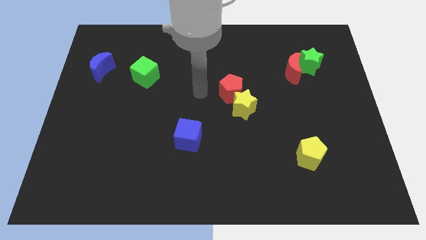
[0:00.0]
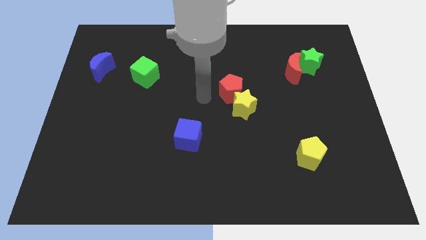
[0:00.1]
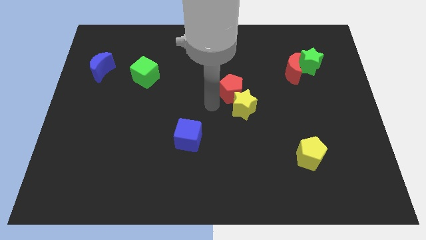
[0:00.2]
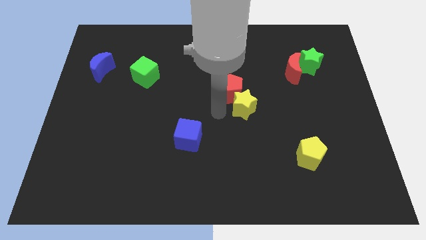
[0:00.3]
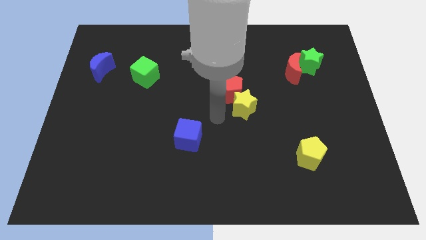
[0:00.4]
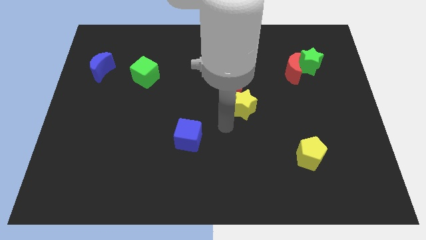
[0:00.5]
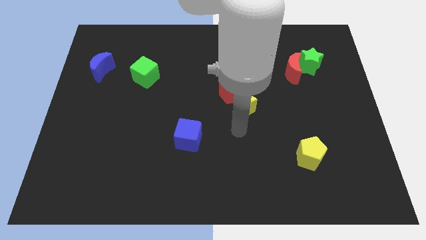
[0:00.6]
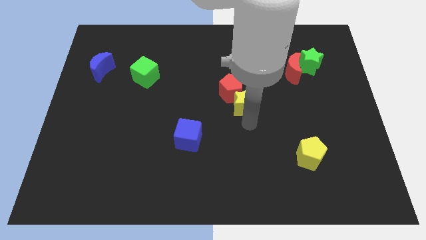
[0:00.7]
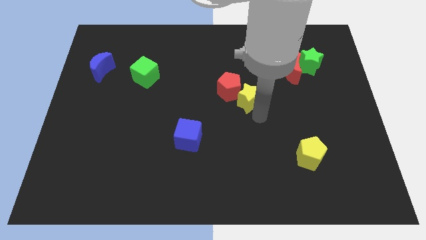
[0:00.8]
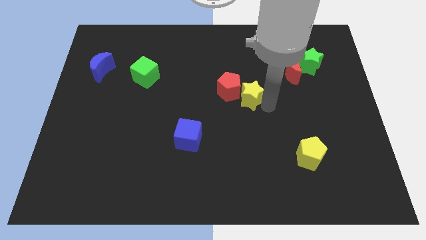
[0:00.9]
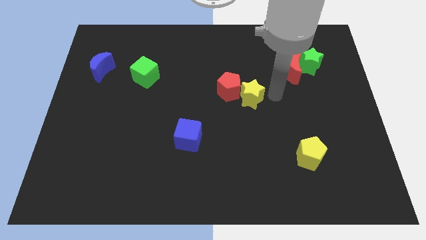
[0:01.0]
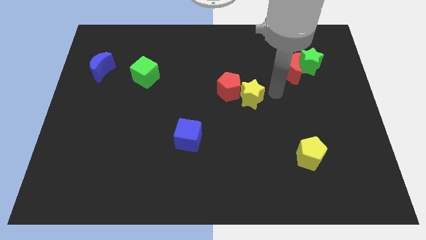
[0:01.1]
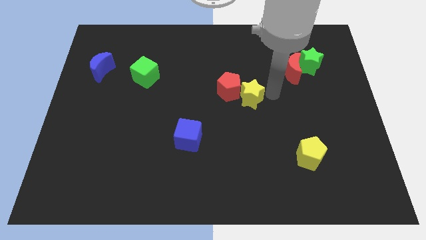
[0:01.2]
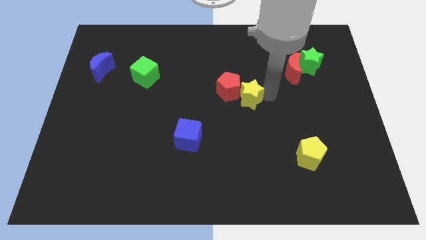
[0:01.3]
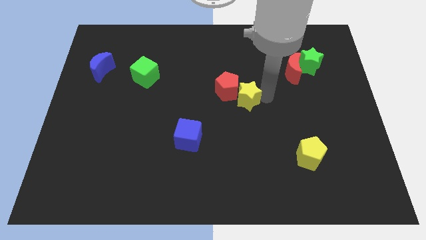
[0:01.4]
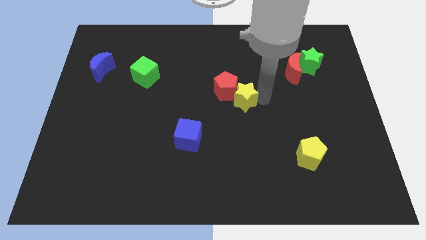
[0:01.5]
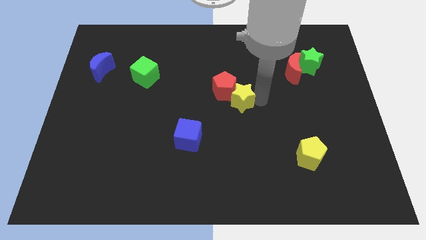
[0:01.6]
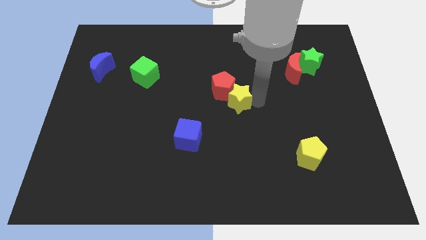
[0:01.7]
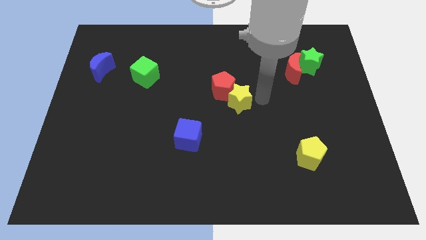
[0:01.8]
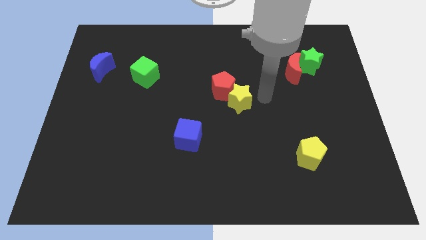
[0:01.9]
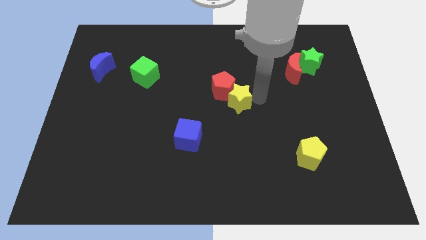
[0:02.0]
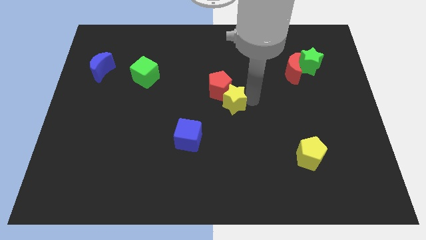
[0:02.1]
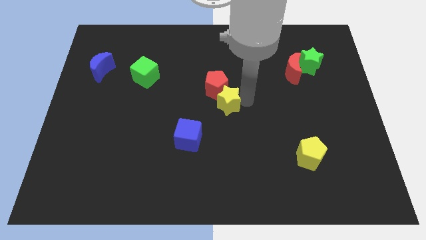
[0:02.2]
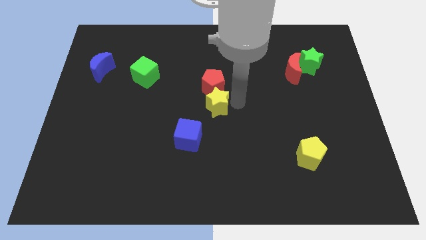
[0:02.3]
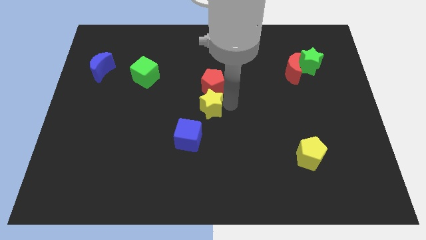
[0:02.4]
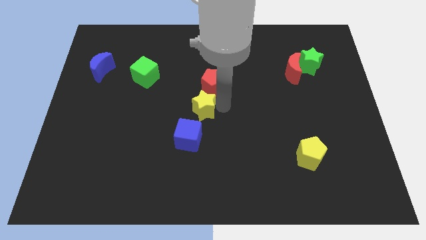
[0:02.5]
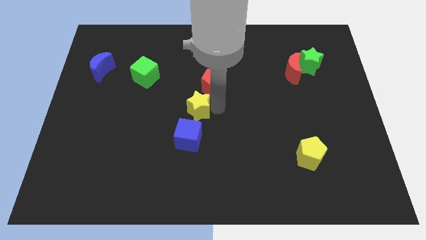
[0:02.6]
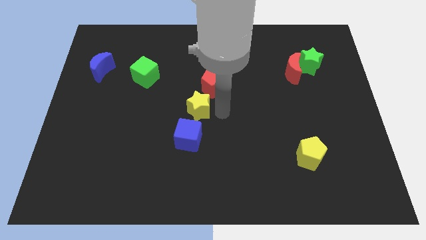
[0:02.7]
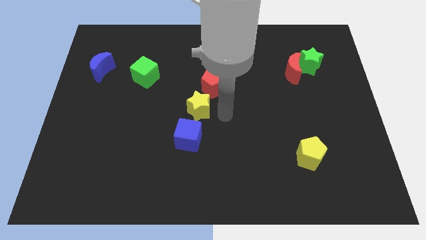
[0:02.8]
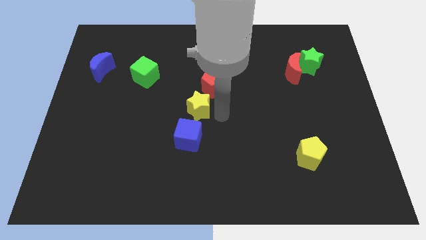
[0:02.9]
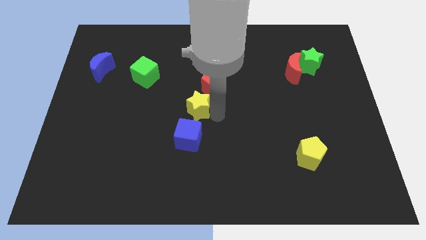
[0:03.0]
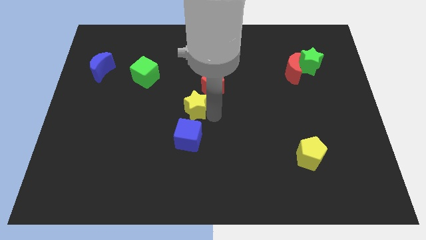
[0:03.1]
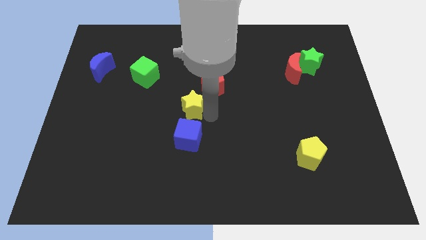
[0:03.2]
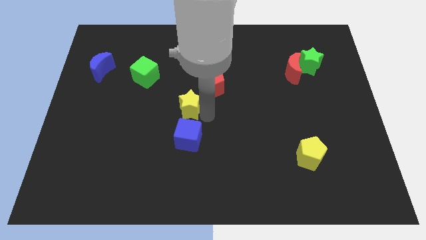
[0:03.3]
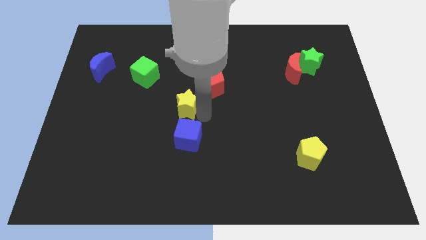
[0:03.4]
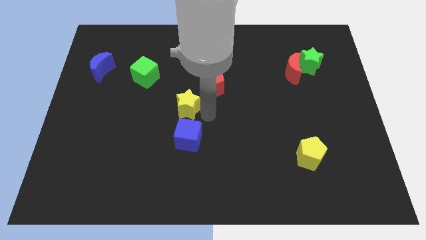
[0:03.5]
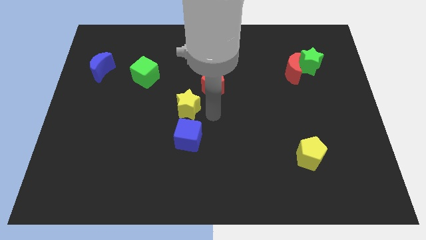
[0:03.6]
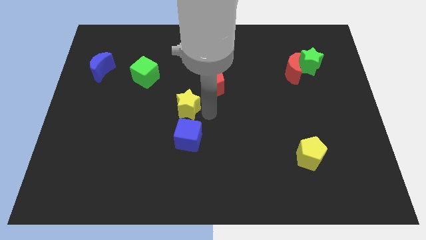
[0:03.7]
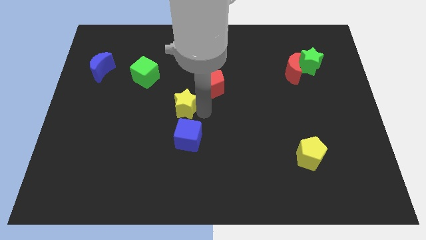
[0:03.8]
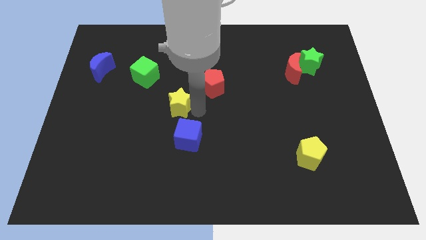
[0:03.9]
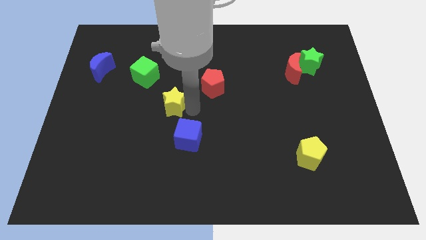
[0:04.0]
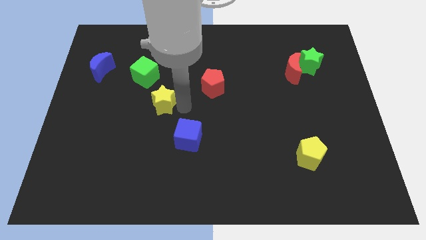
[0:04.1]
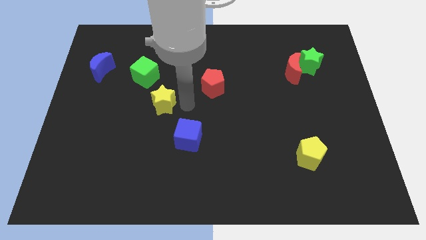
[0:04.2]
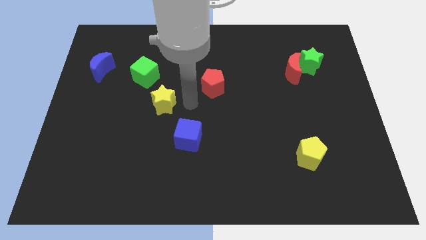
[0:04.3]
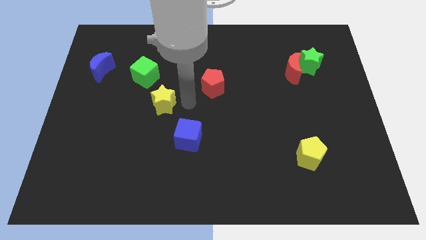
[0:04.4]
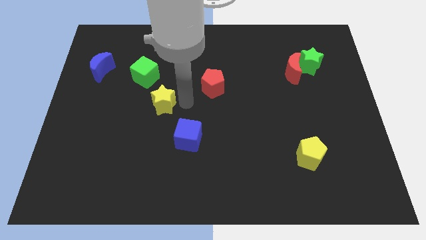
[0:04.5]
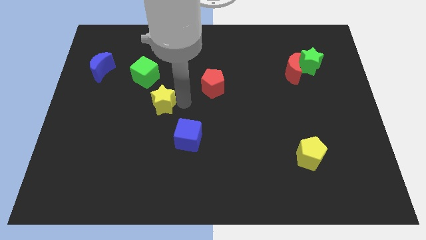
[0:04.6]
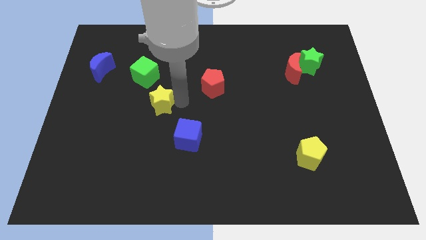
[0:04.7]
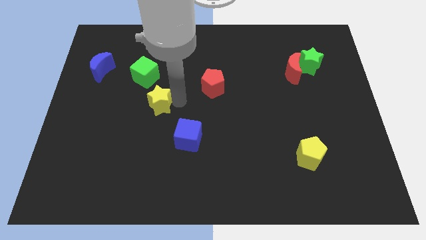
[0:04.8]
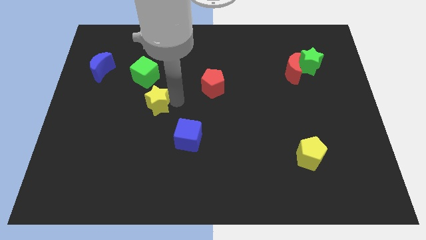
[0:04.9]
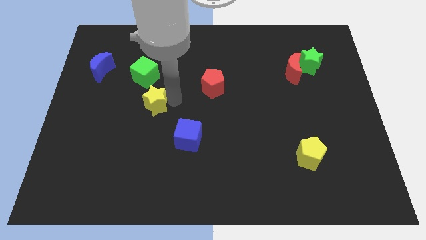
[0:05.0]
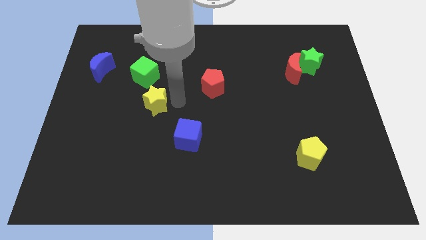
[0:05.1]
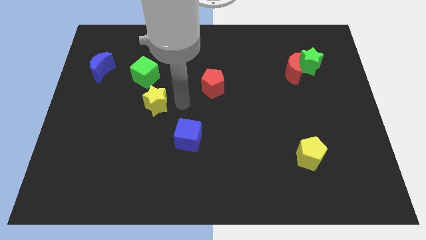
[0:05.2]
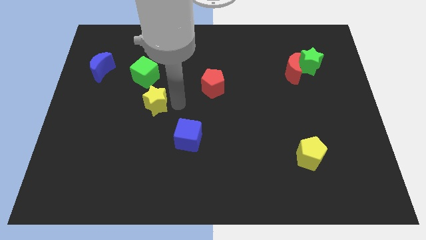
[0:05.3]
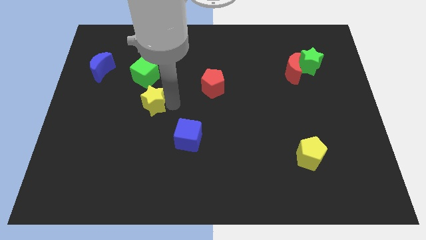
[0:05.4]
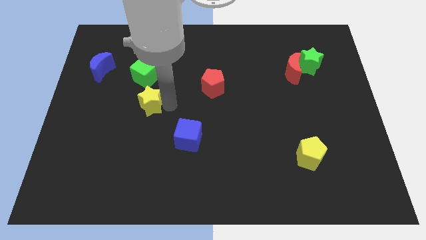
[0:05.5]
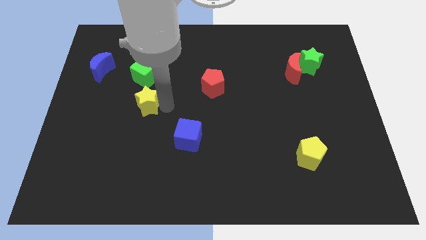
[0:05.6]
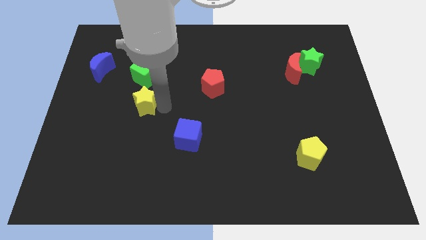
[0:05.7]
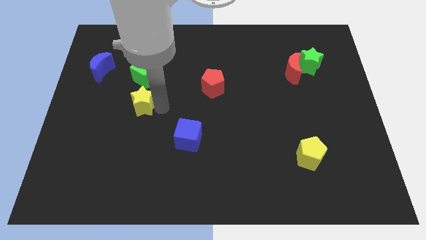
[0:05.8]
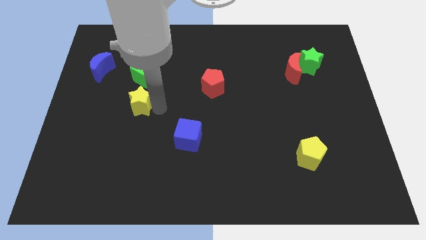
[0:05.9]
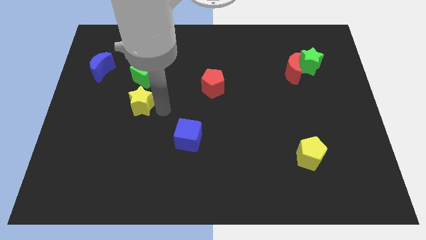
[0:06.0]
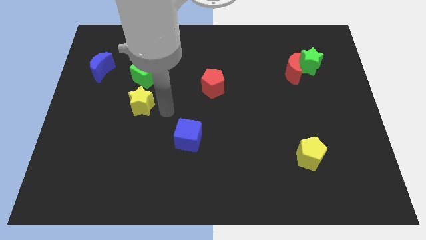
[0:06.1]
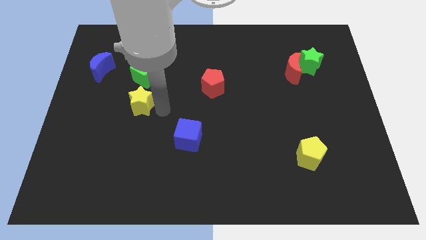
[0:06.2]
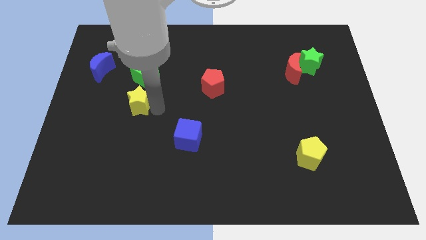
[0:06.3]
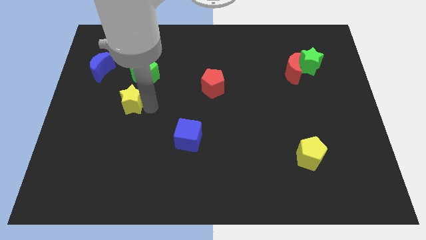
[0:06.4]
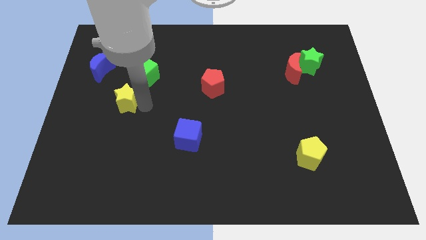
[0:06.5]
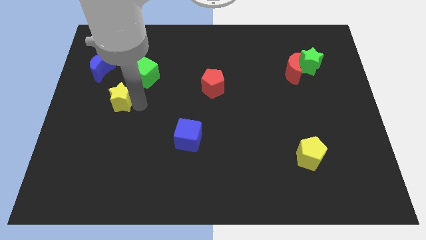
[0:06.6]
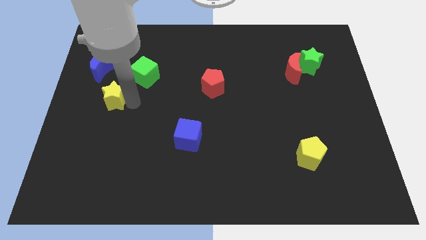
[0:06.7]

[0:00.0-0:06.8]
slide the yellow star to the bottom side of the blue moon
